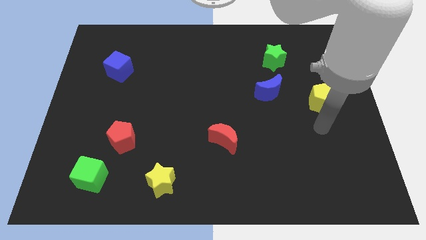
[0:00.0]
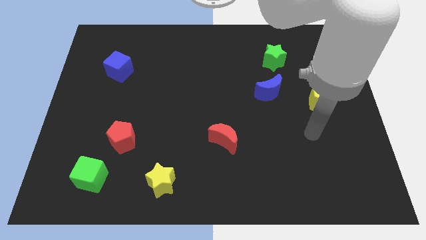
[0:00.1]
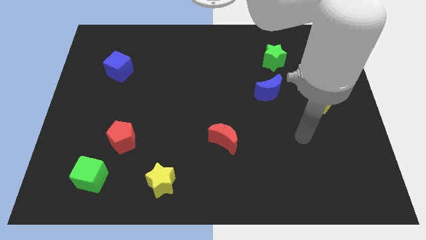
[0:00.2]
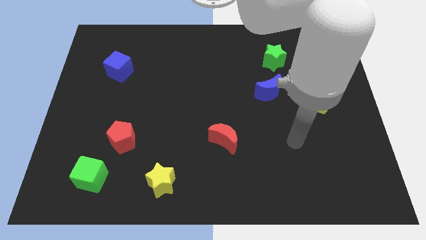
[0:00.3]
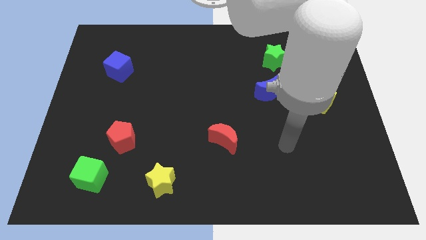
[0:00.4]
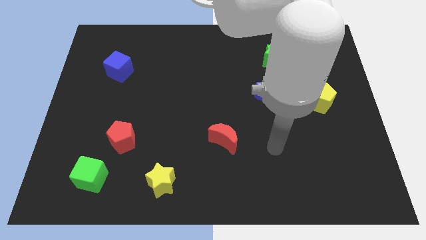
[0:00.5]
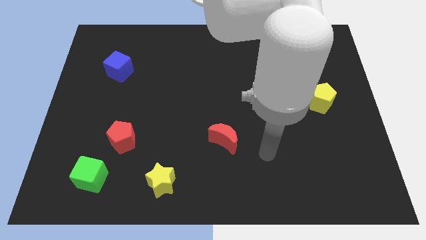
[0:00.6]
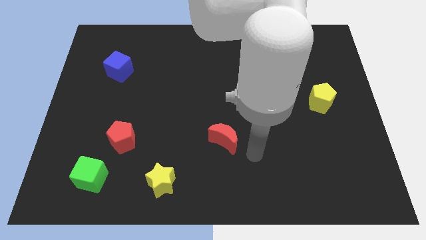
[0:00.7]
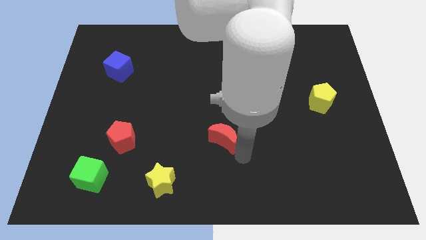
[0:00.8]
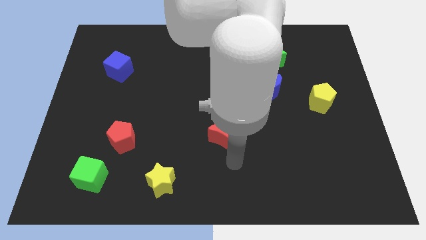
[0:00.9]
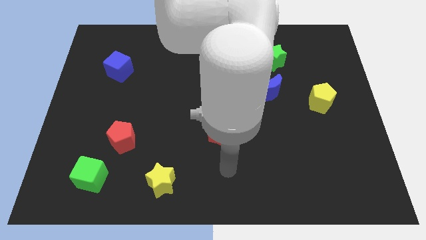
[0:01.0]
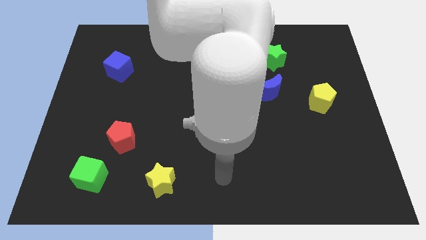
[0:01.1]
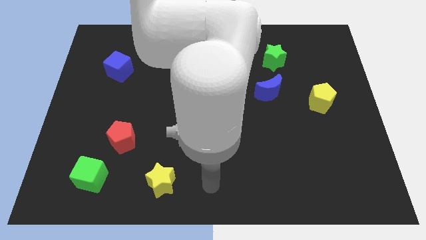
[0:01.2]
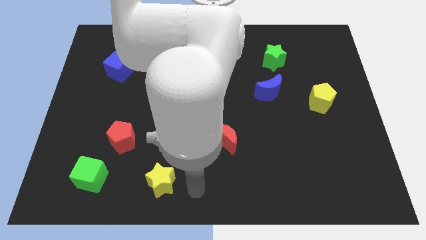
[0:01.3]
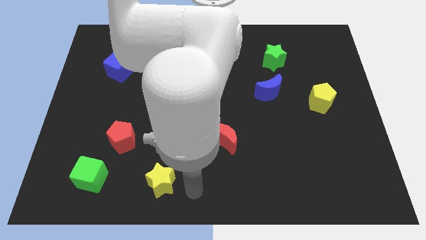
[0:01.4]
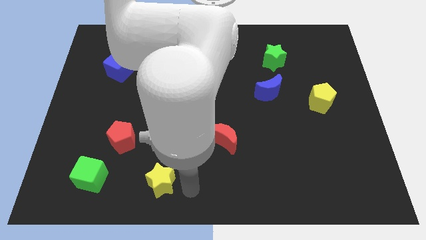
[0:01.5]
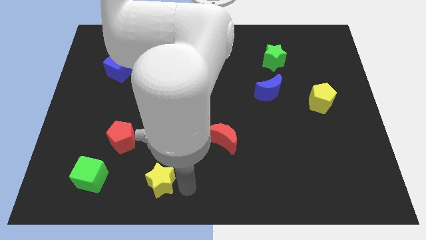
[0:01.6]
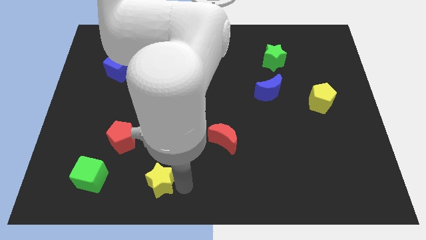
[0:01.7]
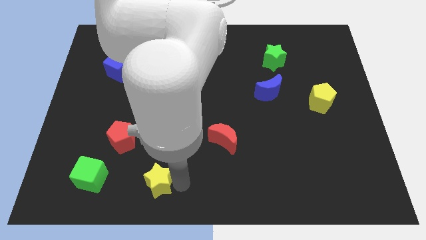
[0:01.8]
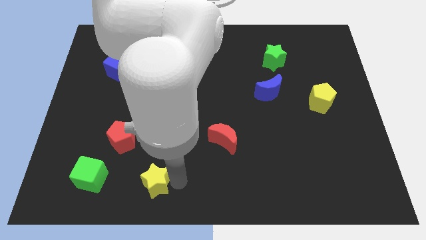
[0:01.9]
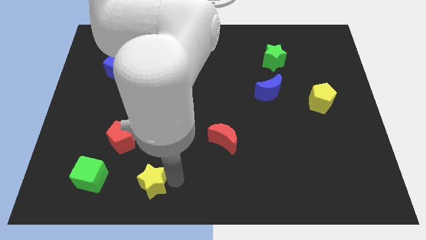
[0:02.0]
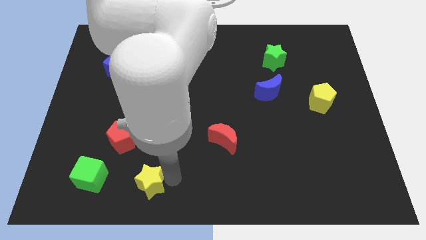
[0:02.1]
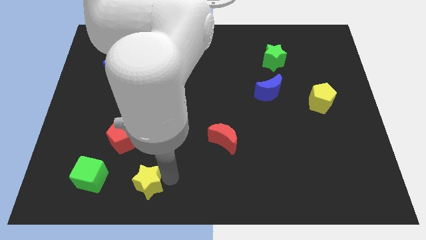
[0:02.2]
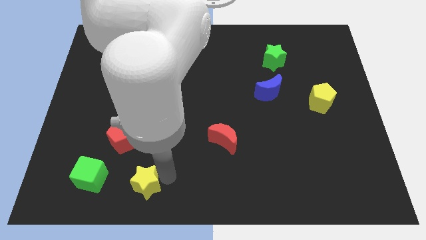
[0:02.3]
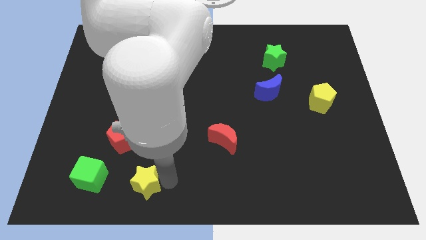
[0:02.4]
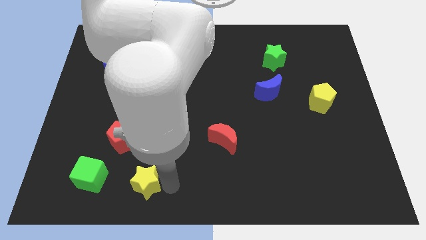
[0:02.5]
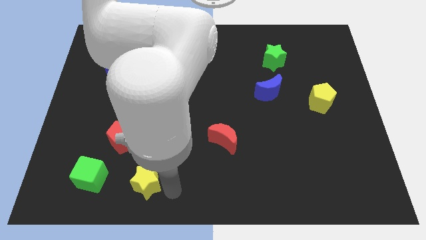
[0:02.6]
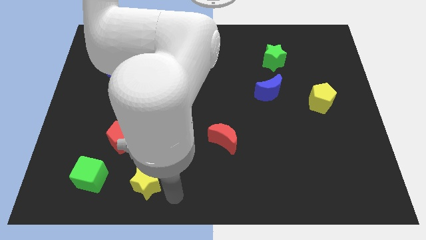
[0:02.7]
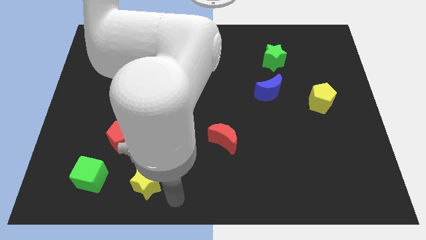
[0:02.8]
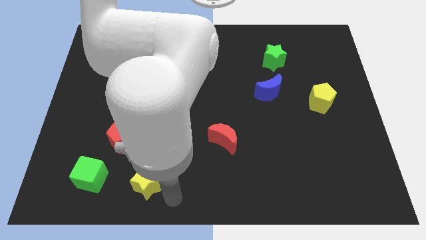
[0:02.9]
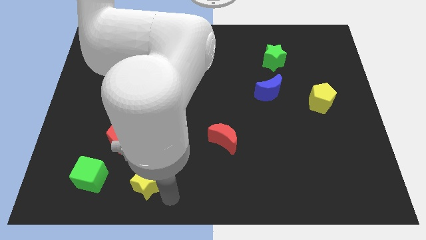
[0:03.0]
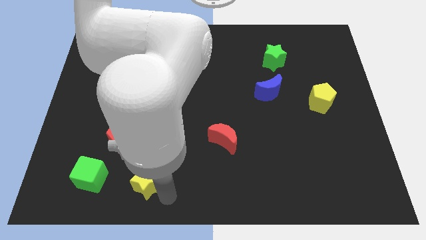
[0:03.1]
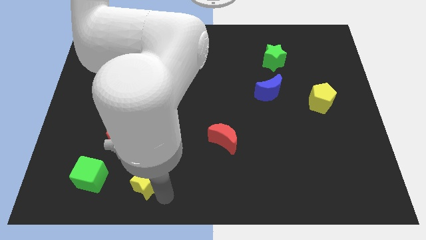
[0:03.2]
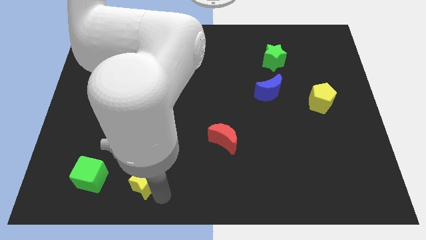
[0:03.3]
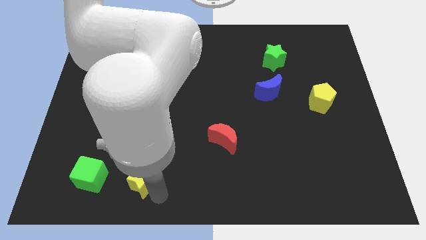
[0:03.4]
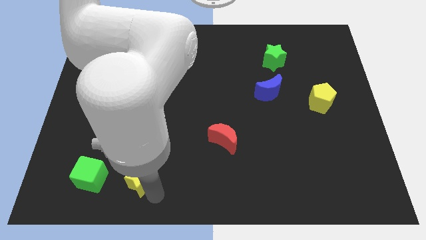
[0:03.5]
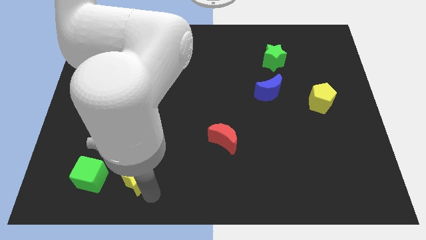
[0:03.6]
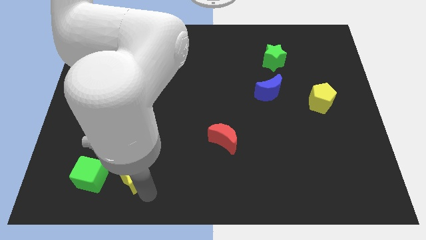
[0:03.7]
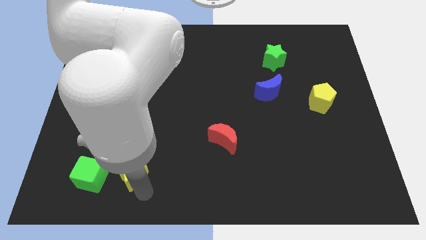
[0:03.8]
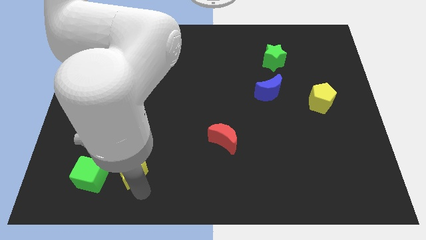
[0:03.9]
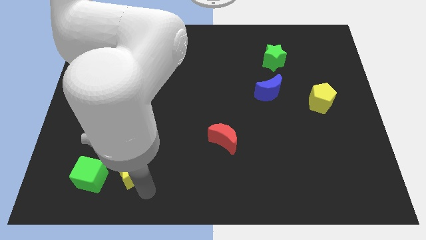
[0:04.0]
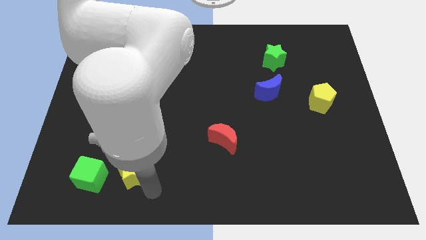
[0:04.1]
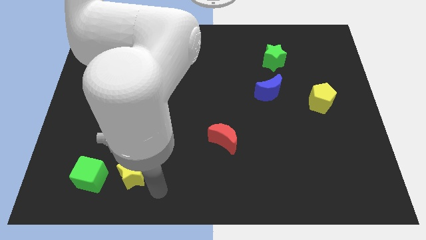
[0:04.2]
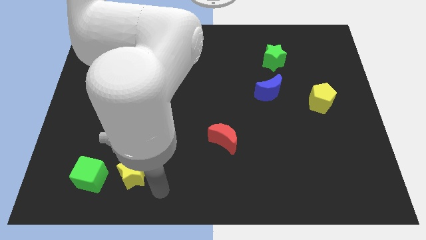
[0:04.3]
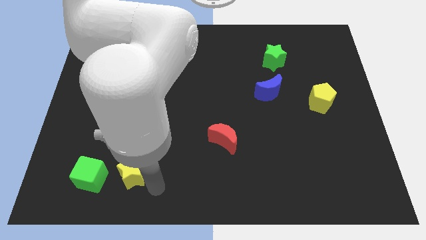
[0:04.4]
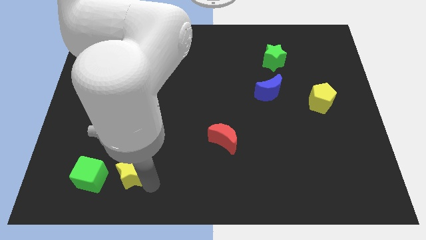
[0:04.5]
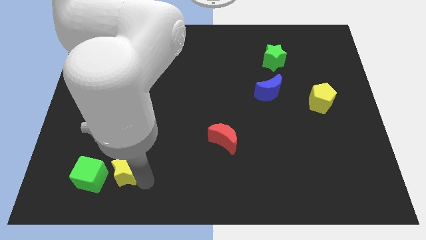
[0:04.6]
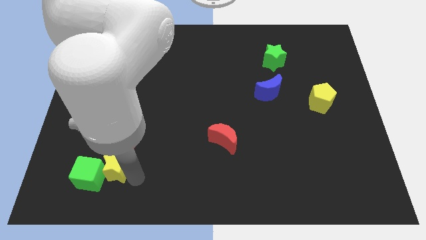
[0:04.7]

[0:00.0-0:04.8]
slightly push the yellow star up and then left

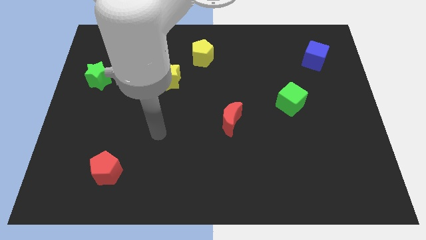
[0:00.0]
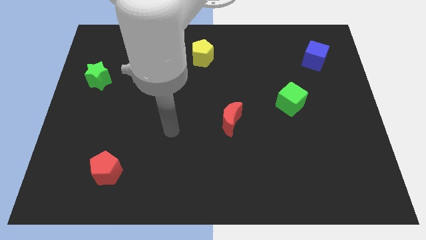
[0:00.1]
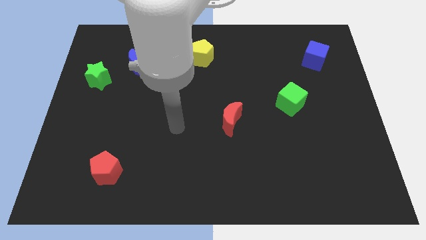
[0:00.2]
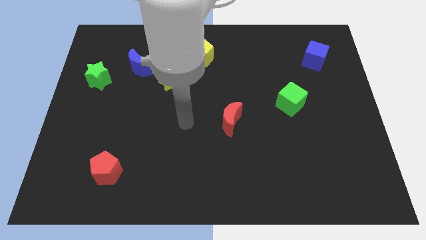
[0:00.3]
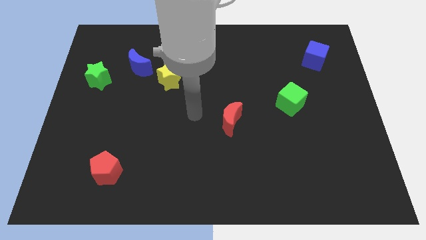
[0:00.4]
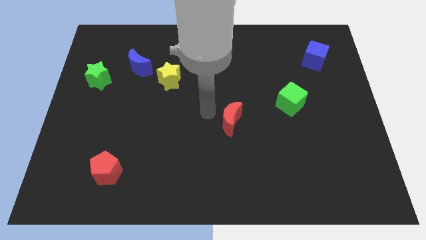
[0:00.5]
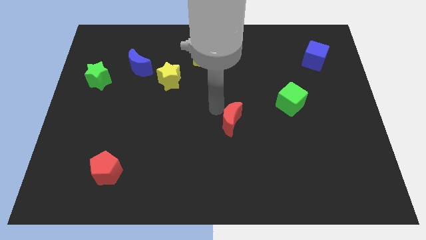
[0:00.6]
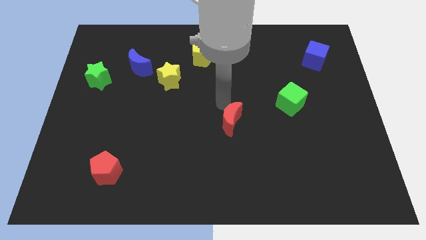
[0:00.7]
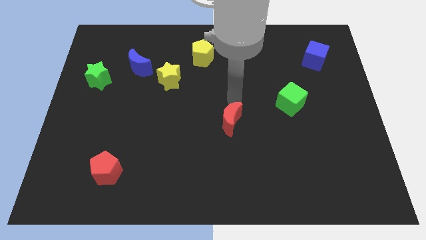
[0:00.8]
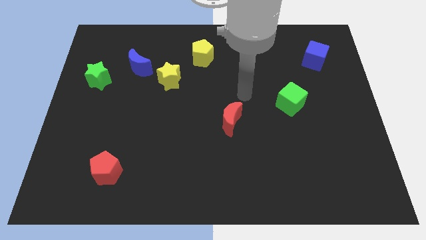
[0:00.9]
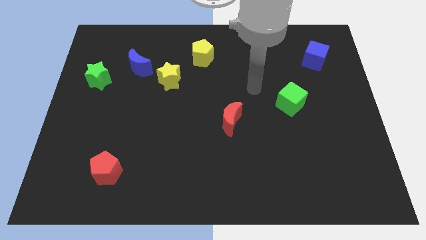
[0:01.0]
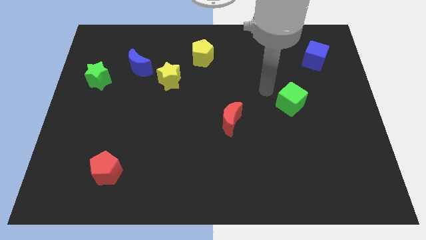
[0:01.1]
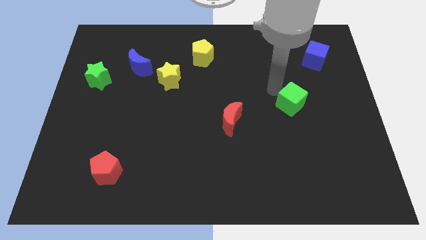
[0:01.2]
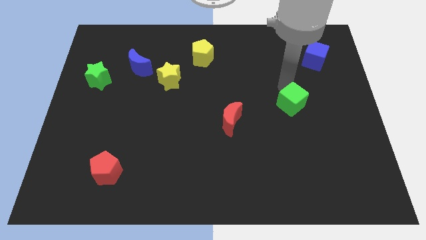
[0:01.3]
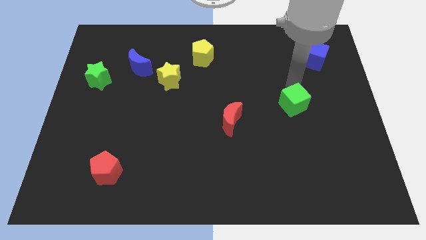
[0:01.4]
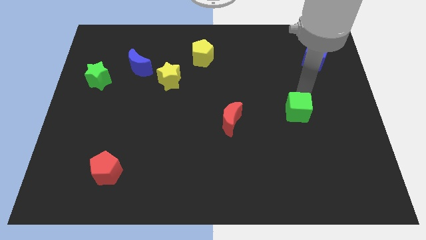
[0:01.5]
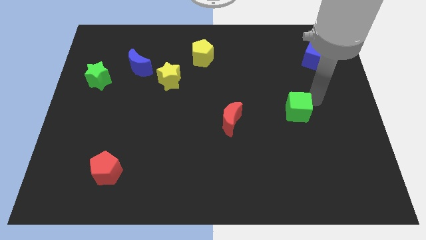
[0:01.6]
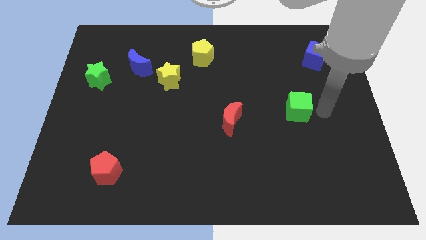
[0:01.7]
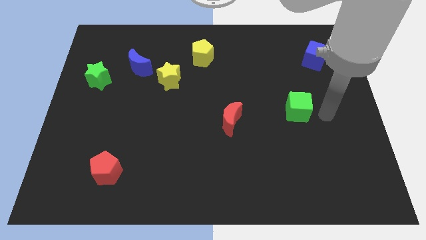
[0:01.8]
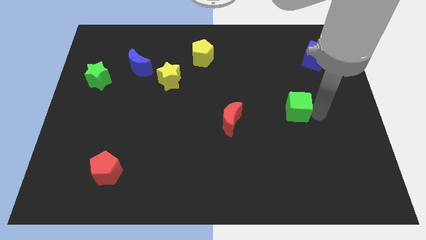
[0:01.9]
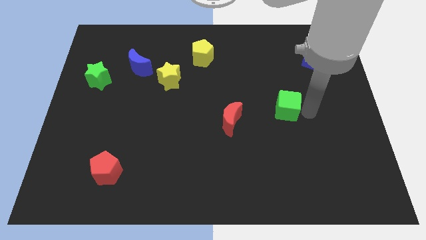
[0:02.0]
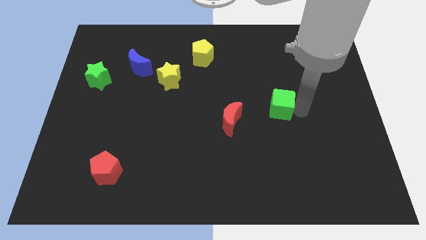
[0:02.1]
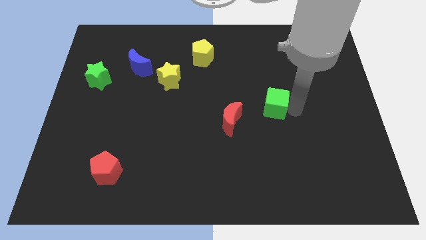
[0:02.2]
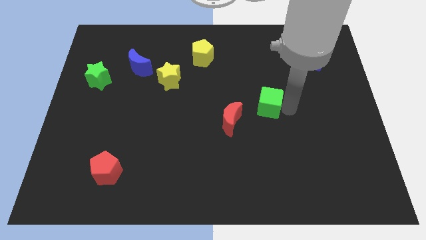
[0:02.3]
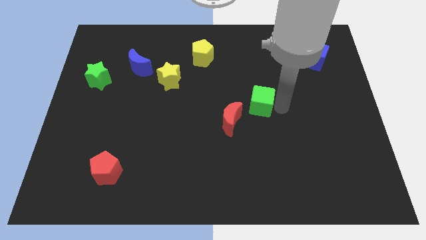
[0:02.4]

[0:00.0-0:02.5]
slide the green cube to the left a little bit

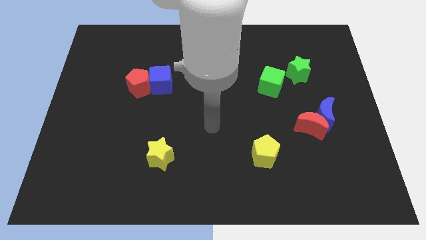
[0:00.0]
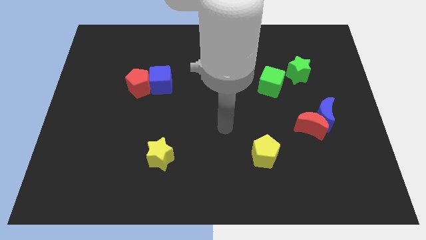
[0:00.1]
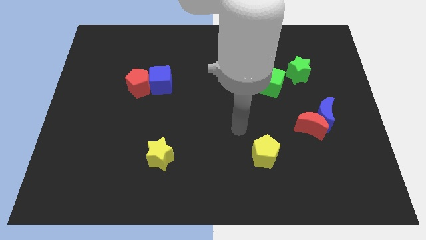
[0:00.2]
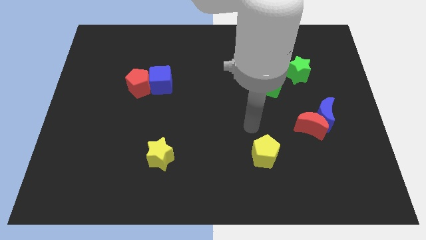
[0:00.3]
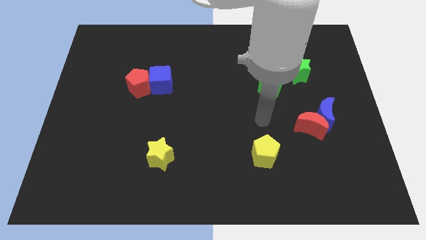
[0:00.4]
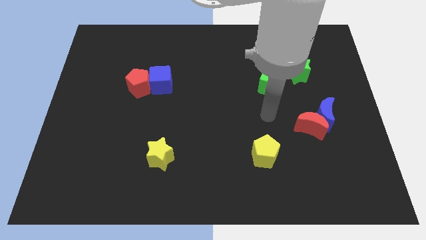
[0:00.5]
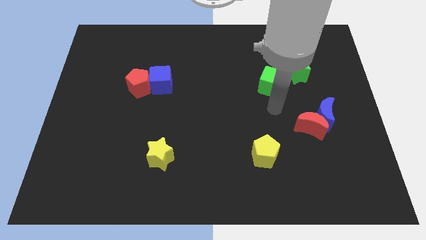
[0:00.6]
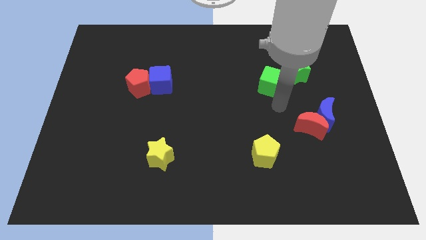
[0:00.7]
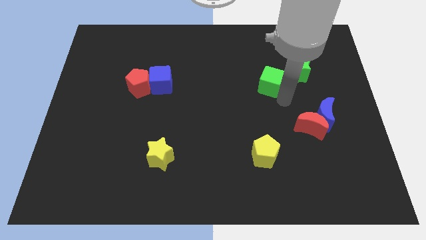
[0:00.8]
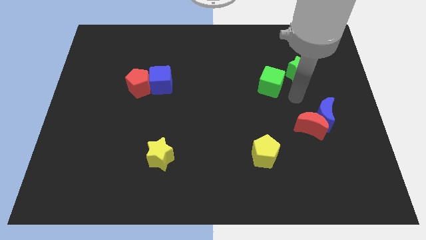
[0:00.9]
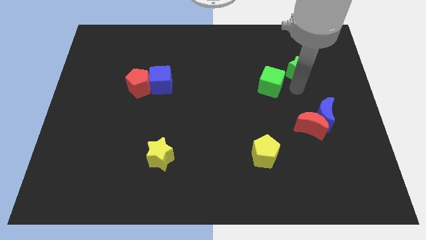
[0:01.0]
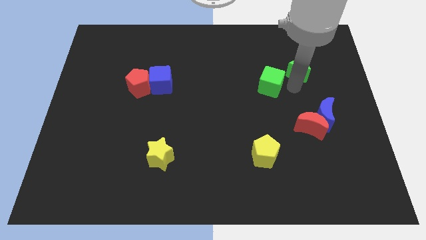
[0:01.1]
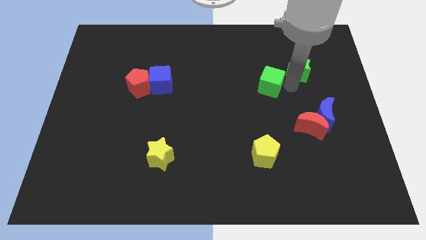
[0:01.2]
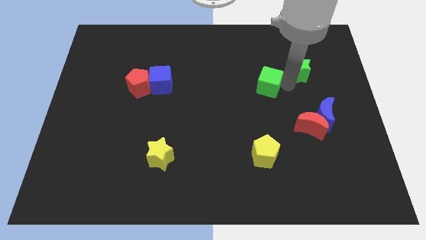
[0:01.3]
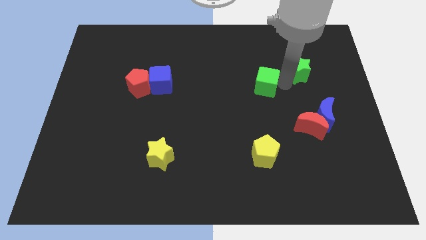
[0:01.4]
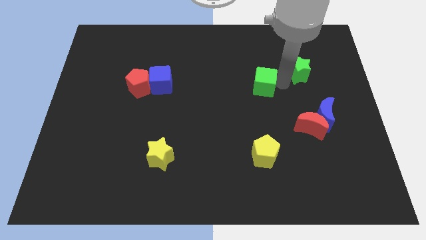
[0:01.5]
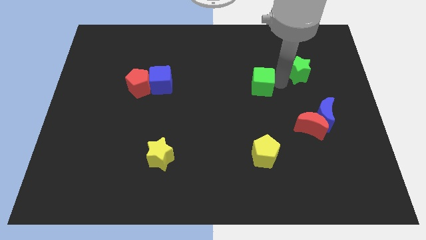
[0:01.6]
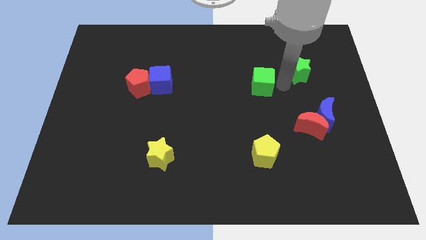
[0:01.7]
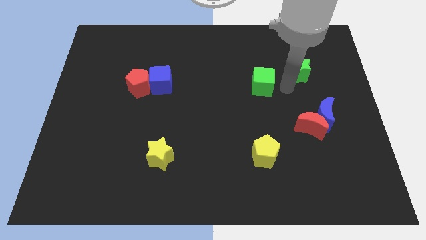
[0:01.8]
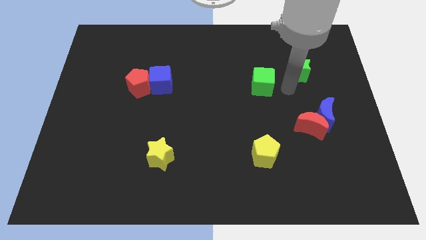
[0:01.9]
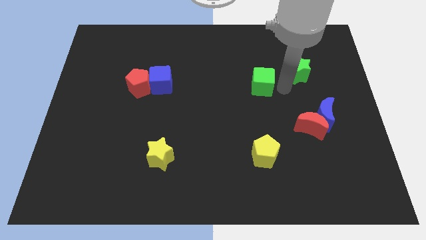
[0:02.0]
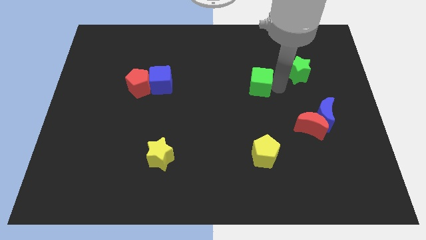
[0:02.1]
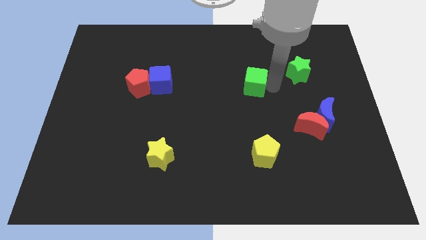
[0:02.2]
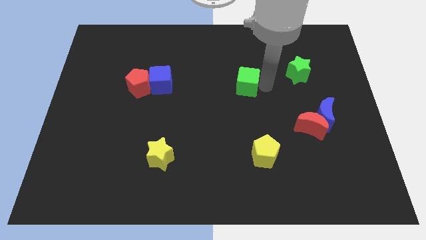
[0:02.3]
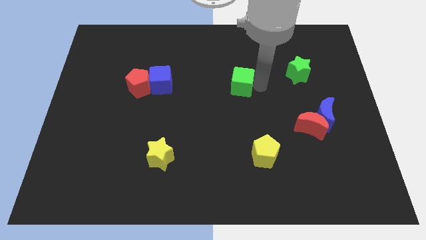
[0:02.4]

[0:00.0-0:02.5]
move the green cube to the left slightly
